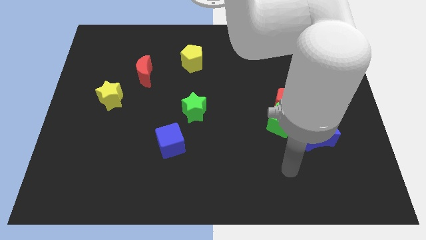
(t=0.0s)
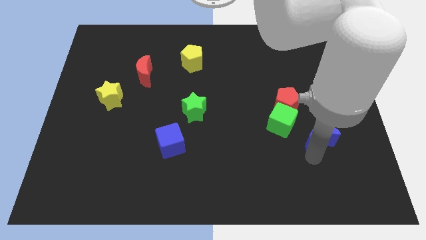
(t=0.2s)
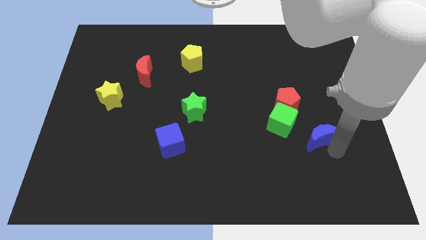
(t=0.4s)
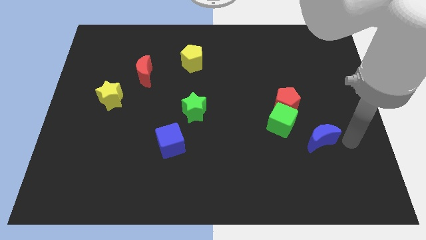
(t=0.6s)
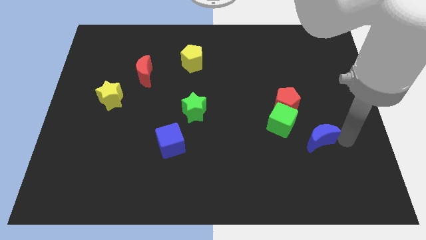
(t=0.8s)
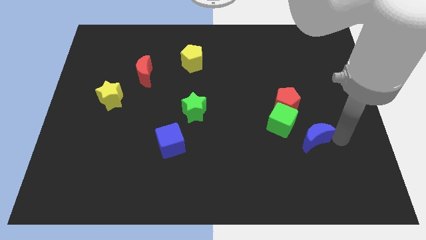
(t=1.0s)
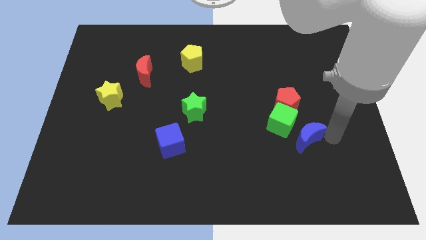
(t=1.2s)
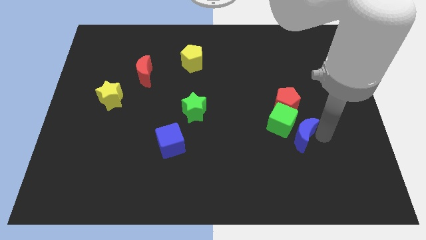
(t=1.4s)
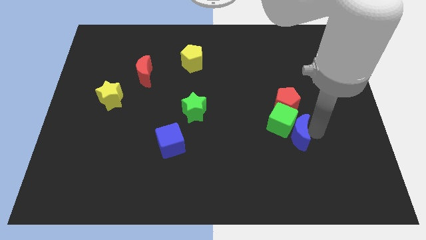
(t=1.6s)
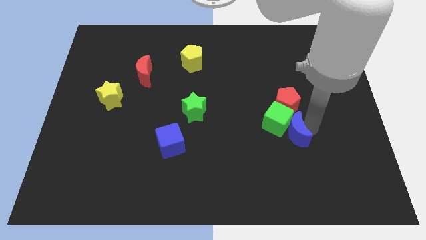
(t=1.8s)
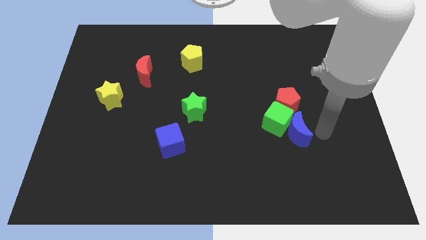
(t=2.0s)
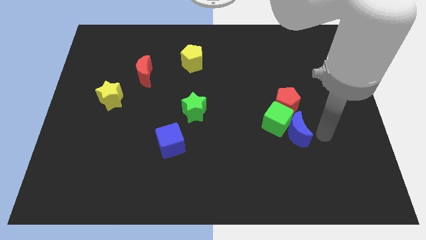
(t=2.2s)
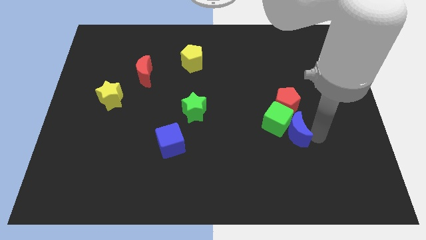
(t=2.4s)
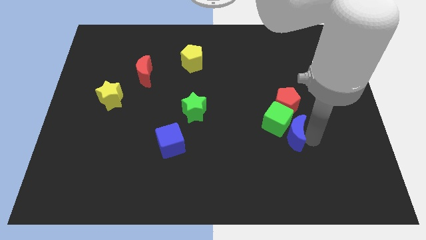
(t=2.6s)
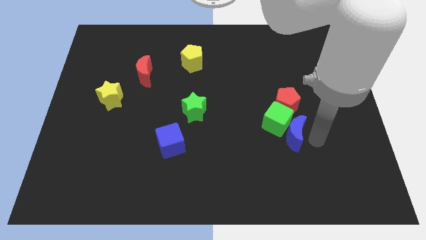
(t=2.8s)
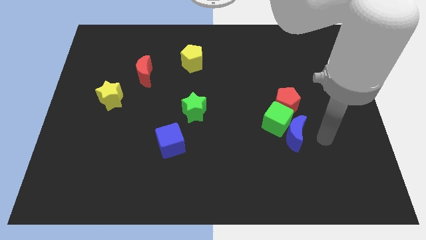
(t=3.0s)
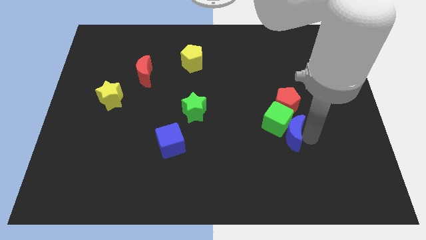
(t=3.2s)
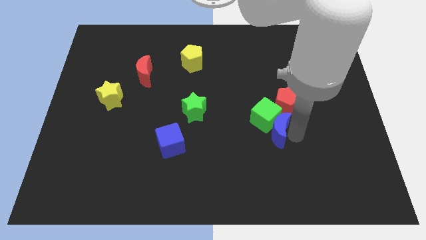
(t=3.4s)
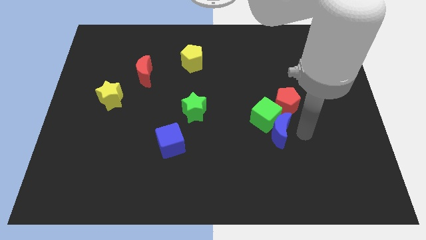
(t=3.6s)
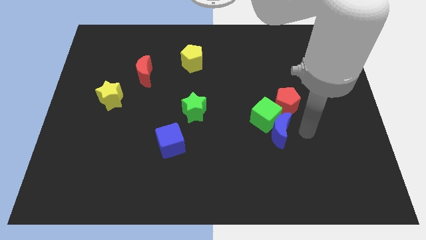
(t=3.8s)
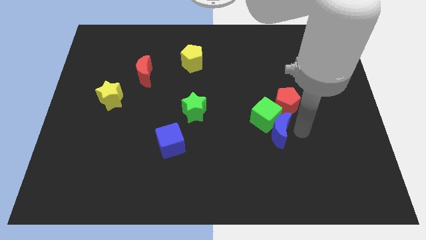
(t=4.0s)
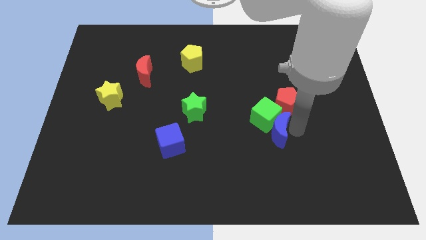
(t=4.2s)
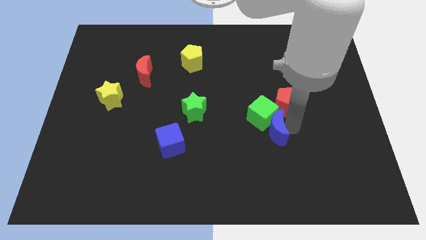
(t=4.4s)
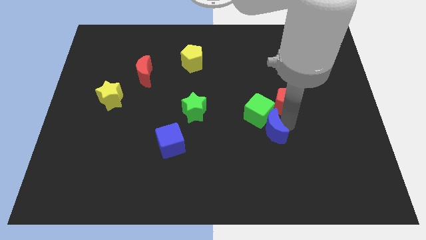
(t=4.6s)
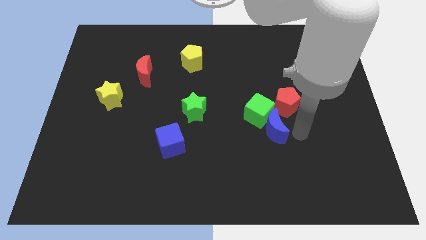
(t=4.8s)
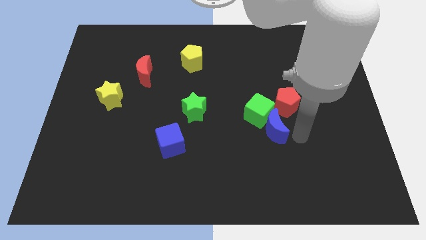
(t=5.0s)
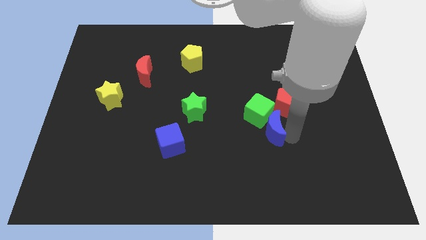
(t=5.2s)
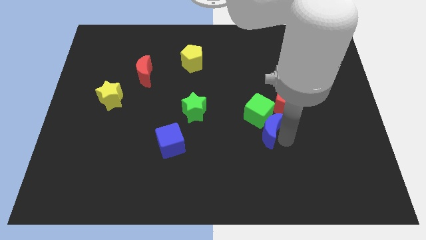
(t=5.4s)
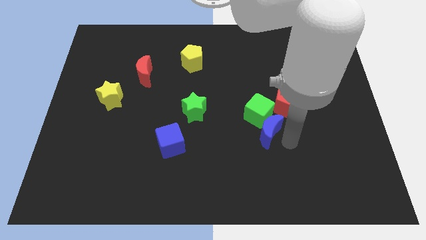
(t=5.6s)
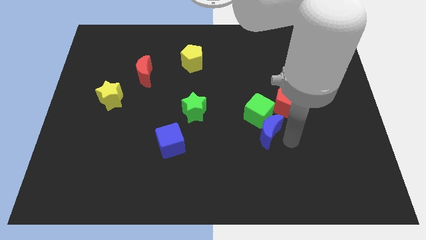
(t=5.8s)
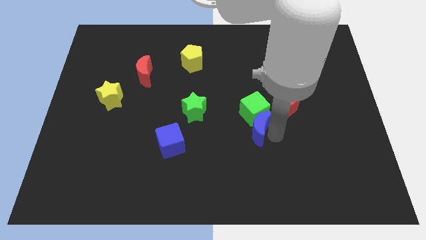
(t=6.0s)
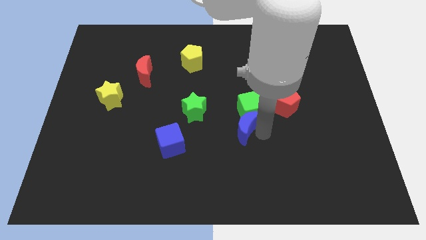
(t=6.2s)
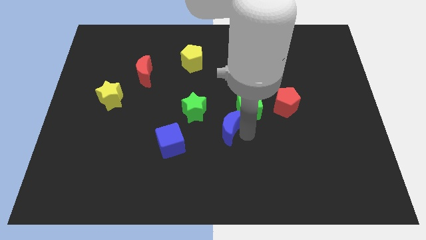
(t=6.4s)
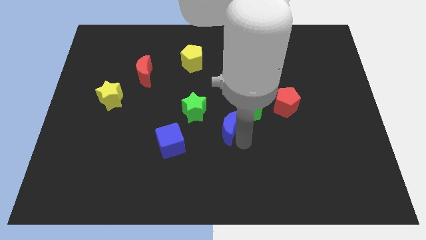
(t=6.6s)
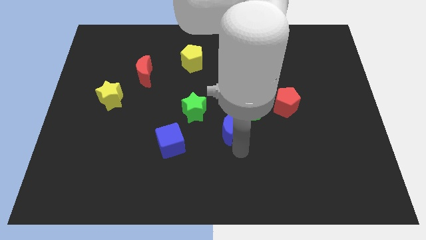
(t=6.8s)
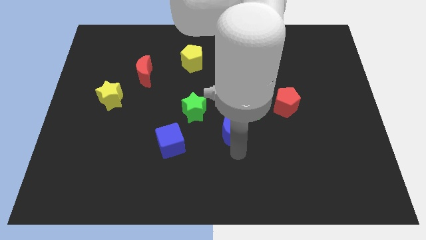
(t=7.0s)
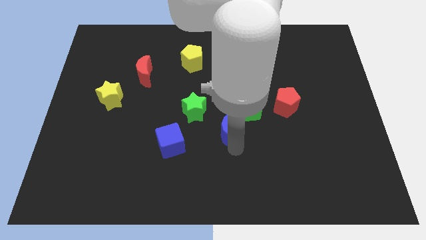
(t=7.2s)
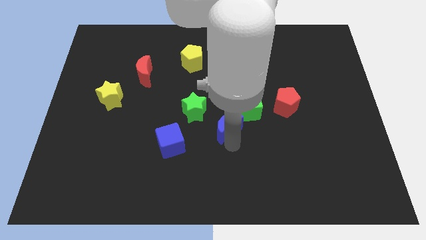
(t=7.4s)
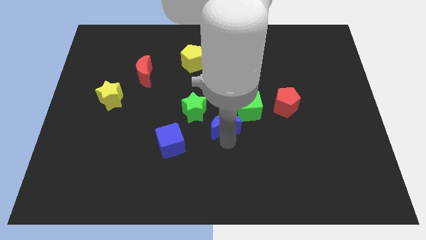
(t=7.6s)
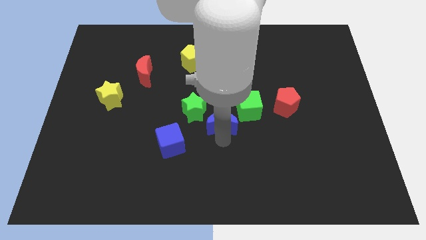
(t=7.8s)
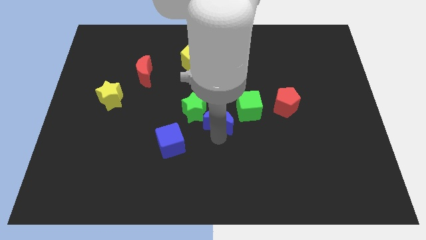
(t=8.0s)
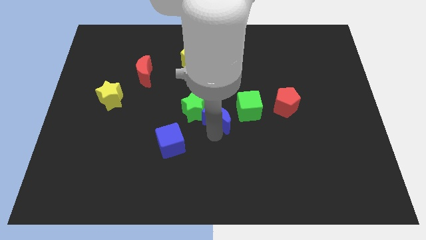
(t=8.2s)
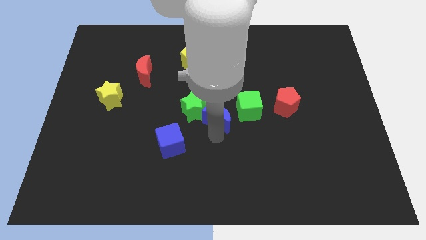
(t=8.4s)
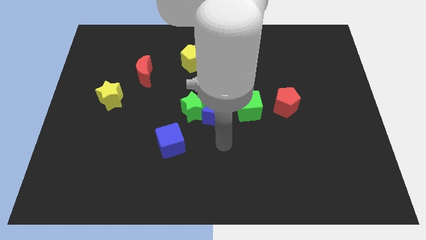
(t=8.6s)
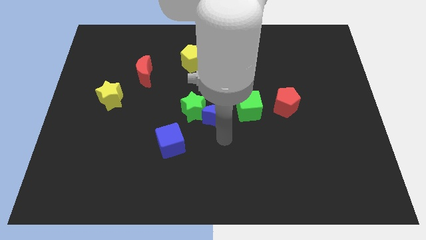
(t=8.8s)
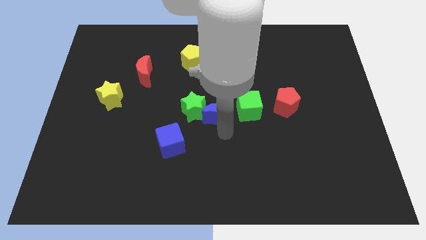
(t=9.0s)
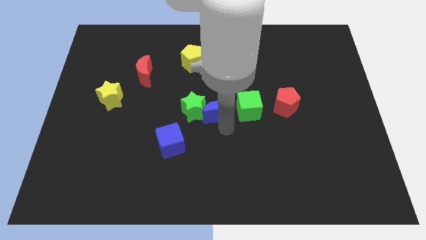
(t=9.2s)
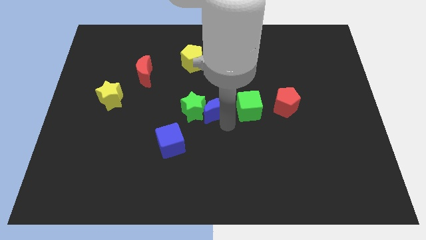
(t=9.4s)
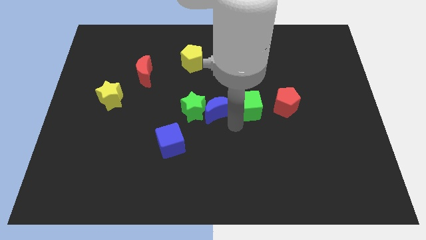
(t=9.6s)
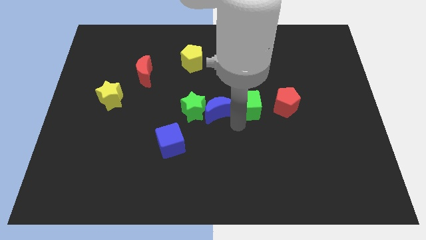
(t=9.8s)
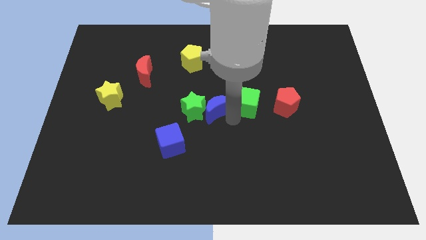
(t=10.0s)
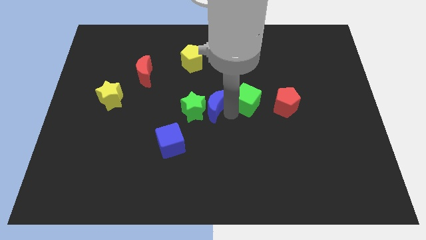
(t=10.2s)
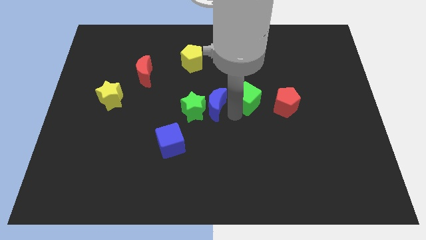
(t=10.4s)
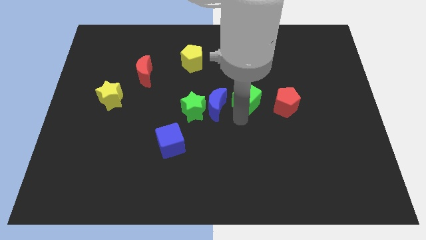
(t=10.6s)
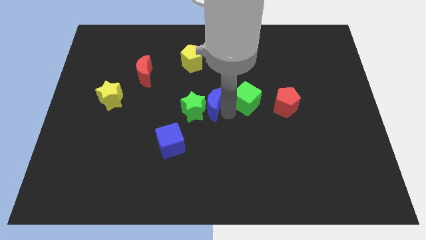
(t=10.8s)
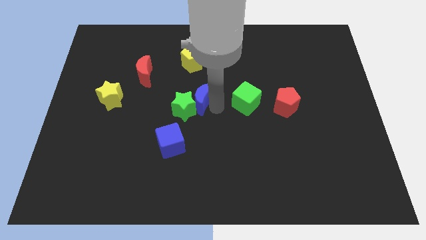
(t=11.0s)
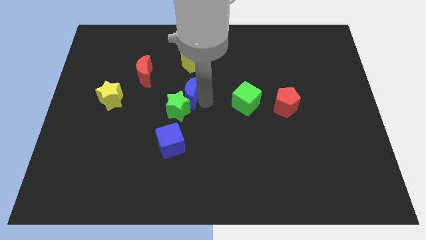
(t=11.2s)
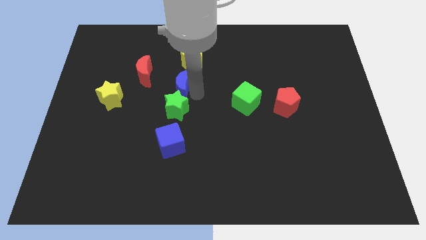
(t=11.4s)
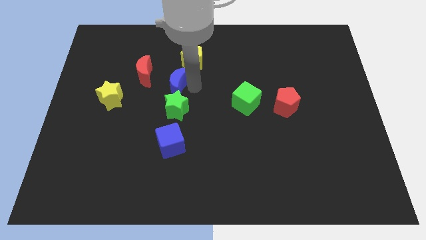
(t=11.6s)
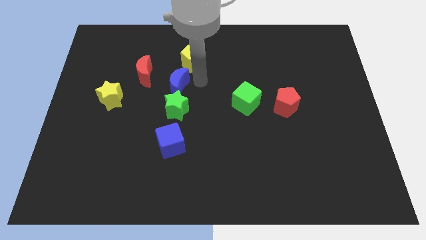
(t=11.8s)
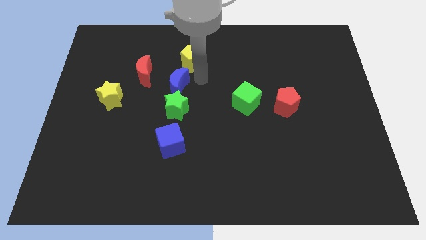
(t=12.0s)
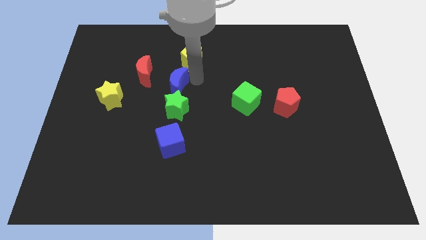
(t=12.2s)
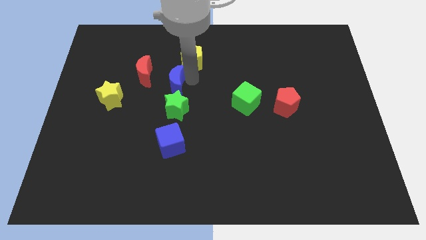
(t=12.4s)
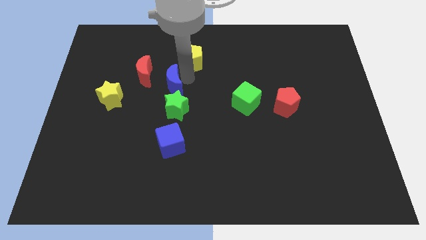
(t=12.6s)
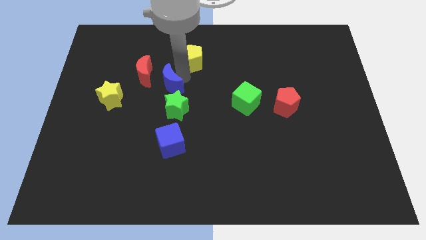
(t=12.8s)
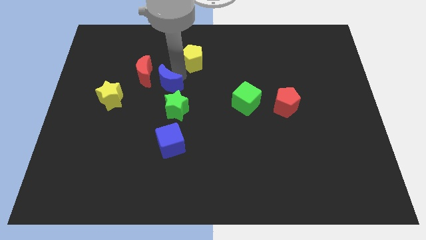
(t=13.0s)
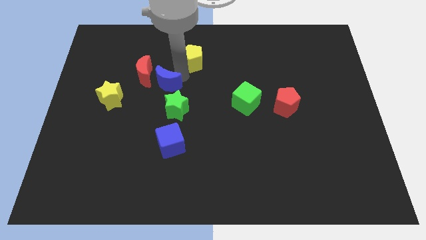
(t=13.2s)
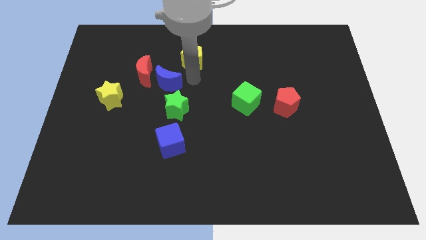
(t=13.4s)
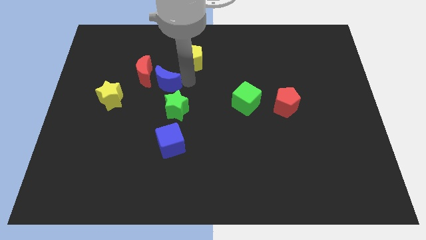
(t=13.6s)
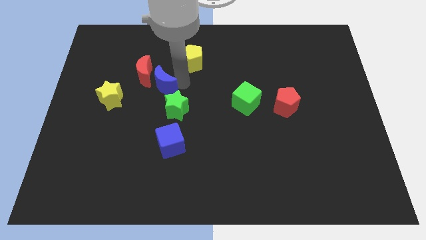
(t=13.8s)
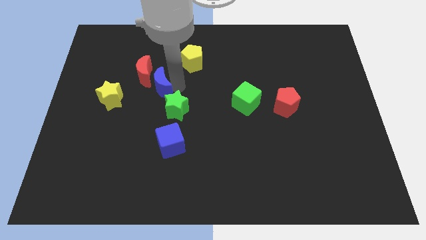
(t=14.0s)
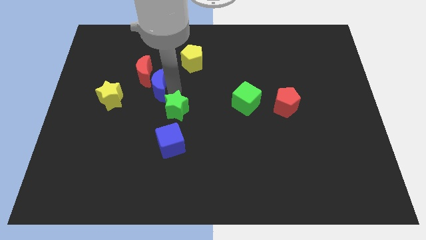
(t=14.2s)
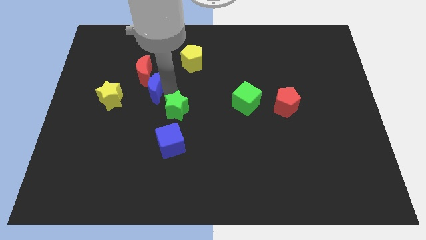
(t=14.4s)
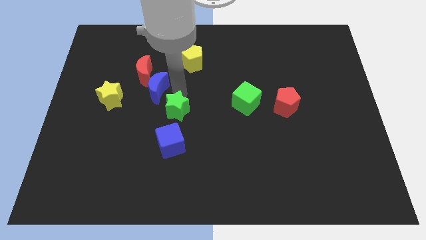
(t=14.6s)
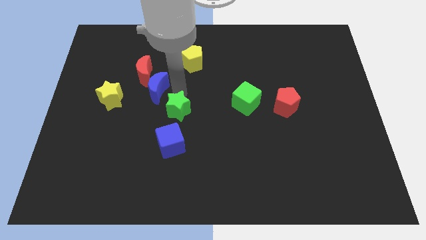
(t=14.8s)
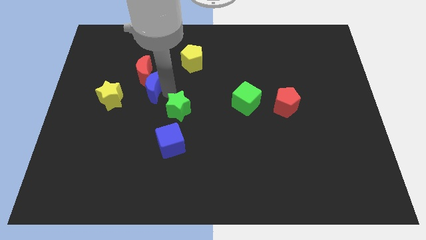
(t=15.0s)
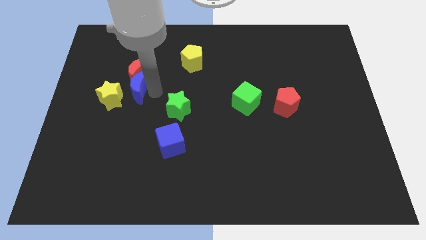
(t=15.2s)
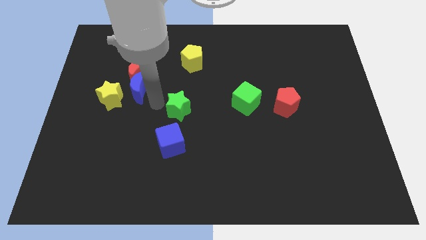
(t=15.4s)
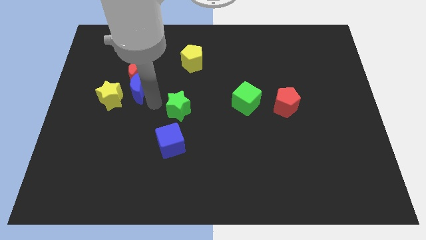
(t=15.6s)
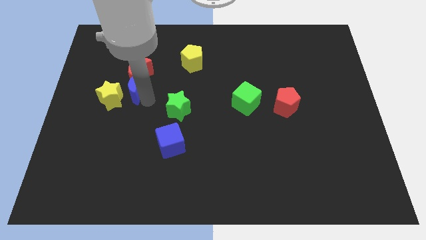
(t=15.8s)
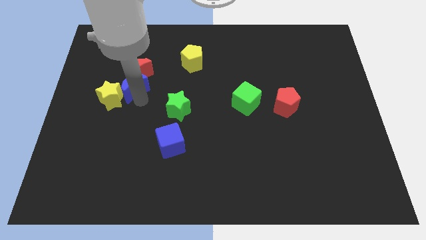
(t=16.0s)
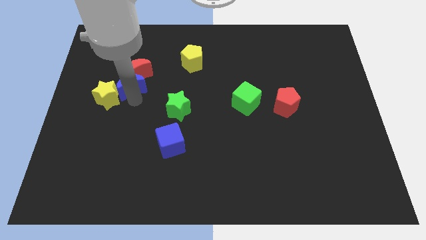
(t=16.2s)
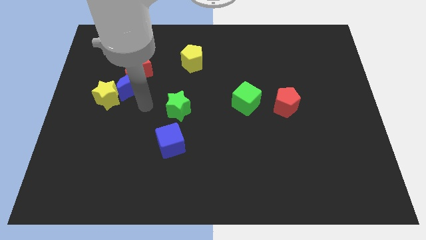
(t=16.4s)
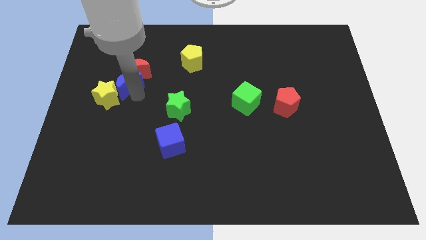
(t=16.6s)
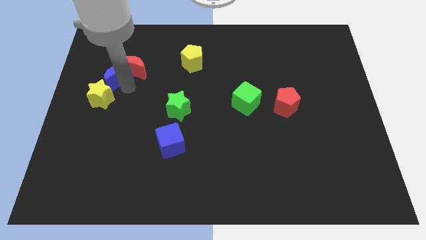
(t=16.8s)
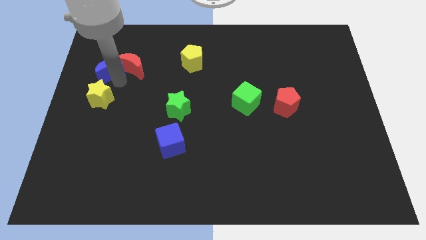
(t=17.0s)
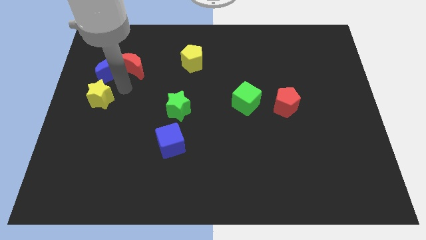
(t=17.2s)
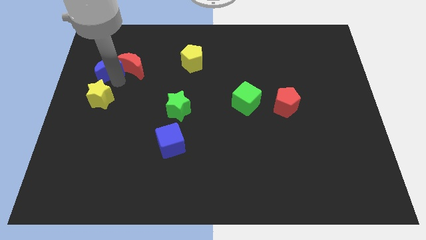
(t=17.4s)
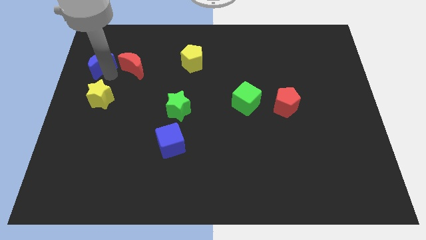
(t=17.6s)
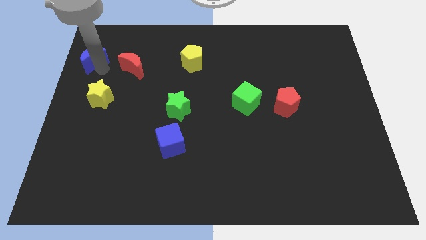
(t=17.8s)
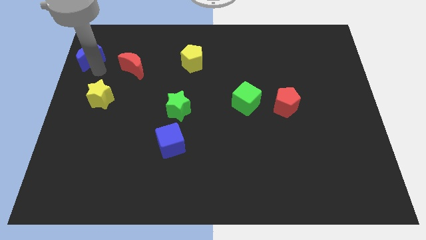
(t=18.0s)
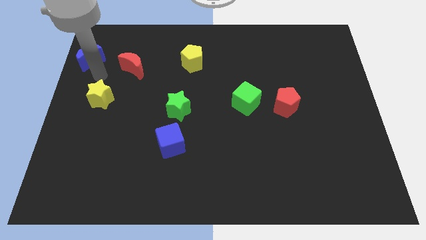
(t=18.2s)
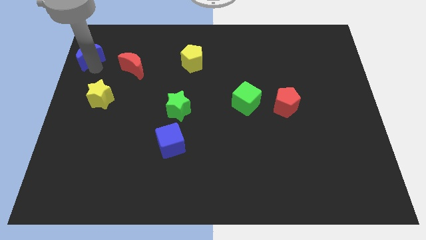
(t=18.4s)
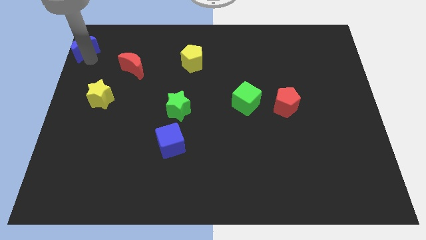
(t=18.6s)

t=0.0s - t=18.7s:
put the blue moon to the upper left corner
